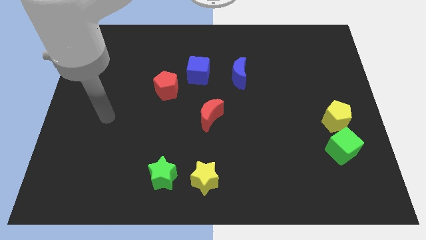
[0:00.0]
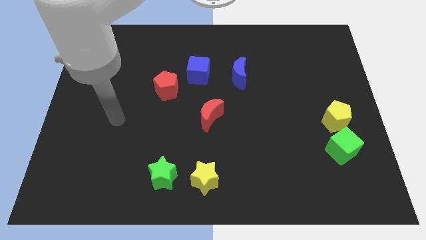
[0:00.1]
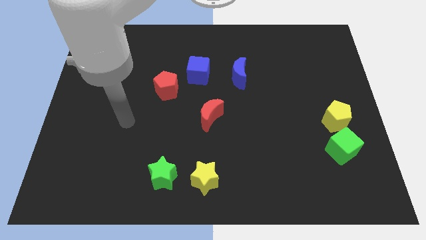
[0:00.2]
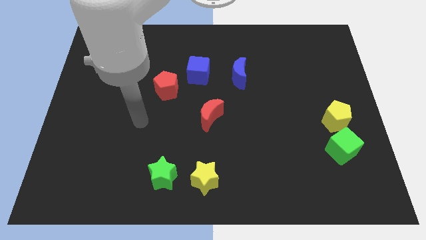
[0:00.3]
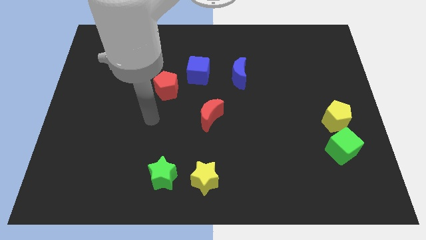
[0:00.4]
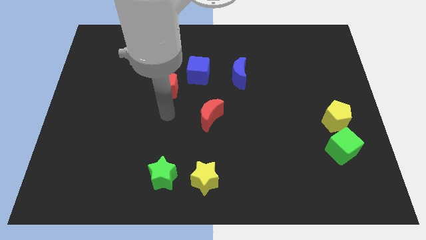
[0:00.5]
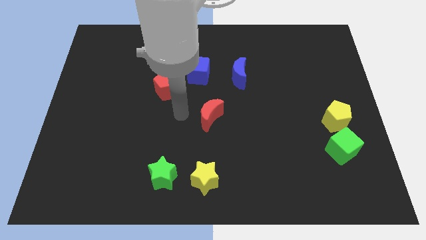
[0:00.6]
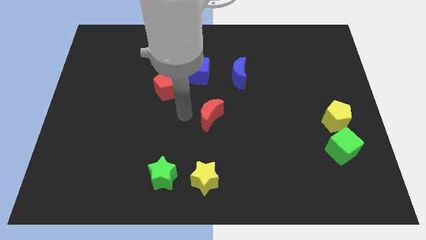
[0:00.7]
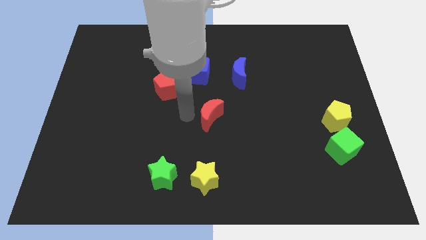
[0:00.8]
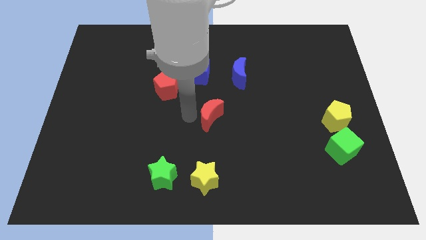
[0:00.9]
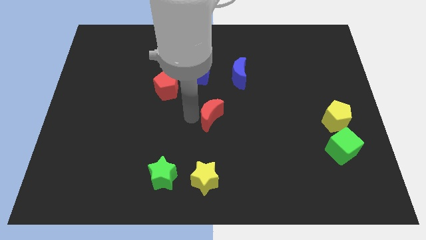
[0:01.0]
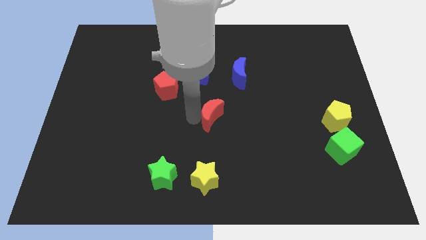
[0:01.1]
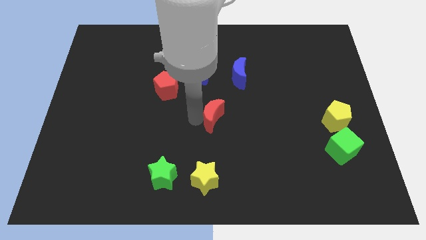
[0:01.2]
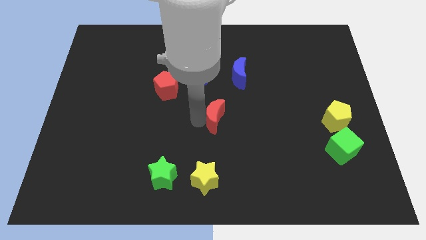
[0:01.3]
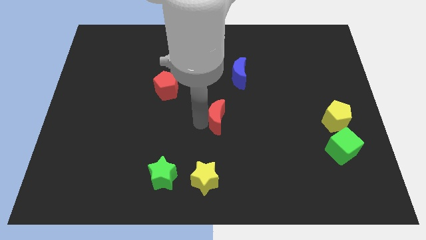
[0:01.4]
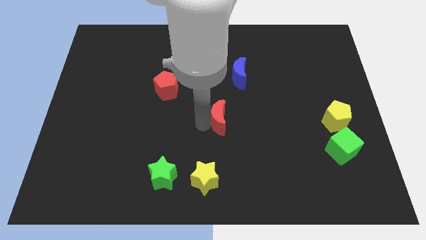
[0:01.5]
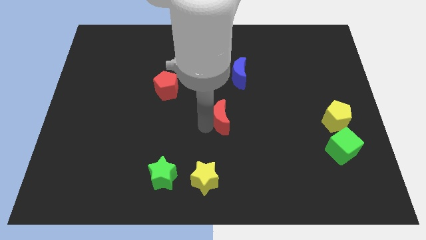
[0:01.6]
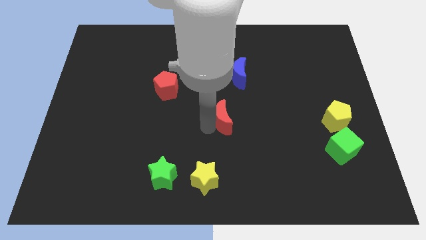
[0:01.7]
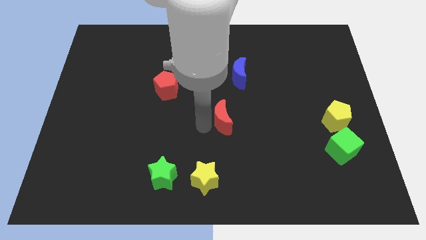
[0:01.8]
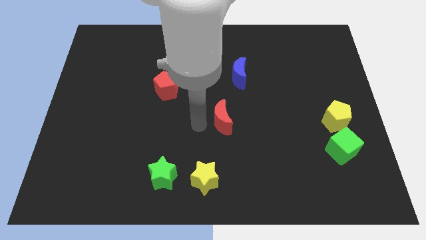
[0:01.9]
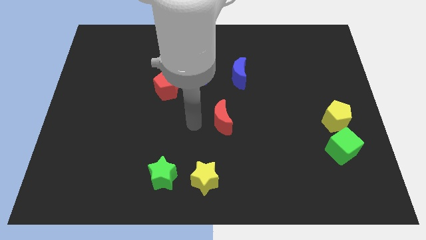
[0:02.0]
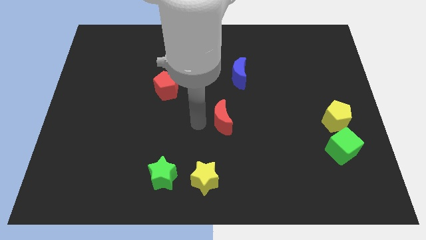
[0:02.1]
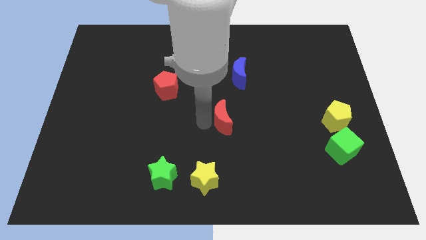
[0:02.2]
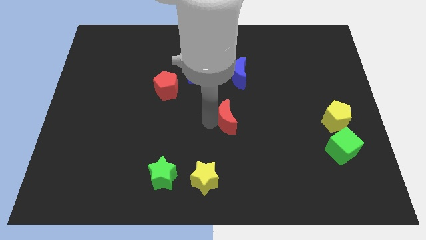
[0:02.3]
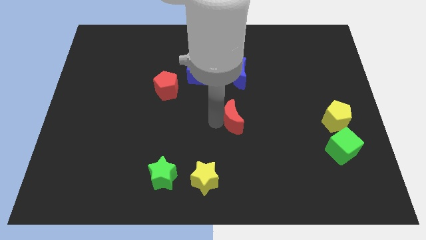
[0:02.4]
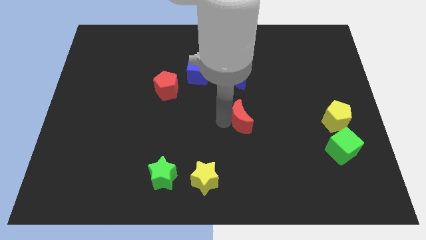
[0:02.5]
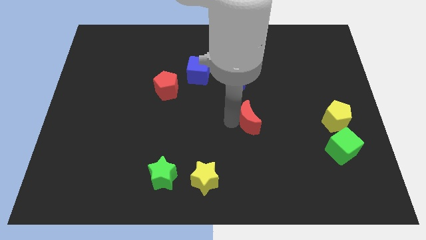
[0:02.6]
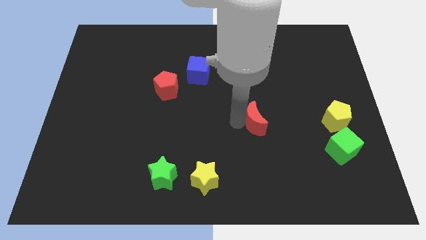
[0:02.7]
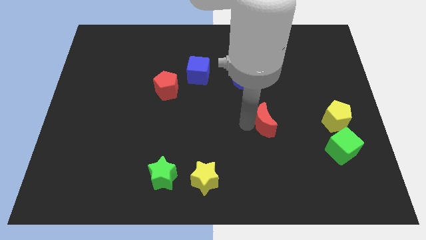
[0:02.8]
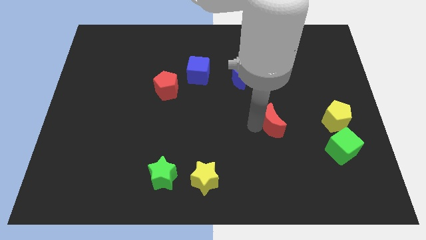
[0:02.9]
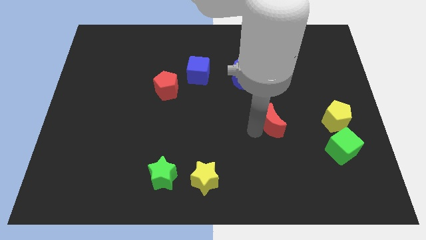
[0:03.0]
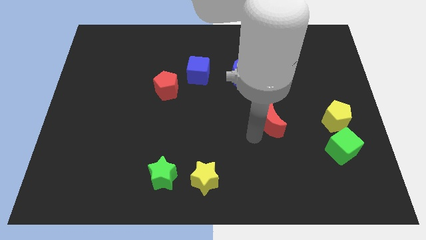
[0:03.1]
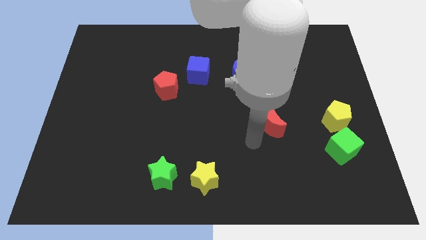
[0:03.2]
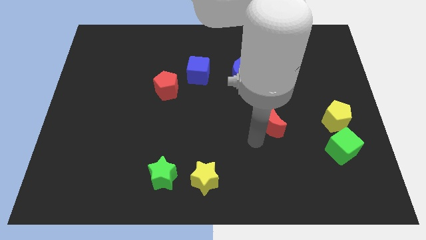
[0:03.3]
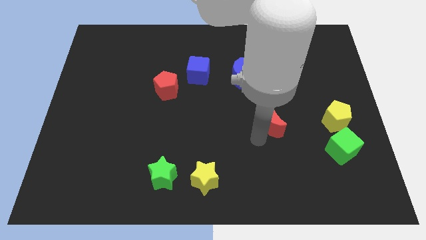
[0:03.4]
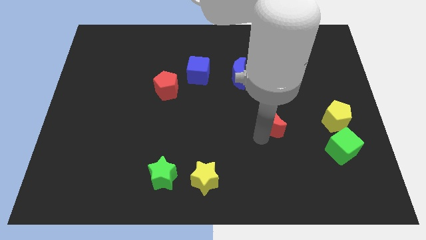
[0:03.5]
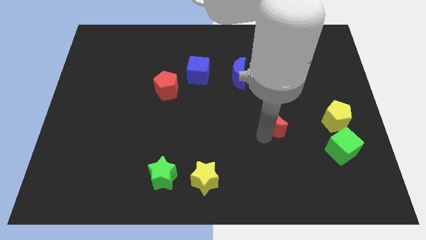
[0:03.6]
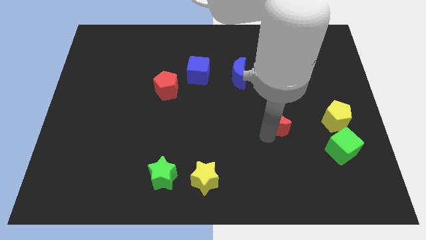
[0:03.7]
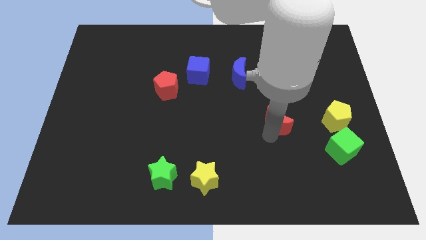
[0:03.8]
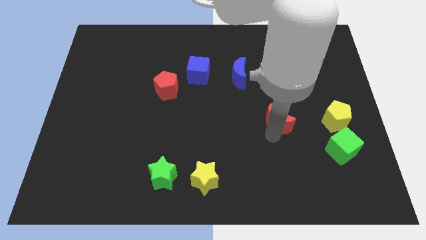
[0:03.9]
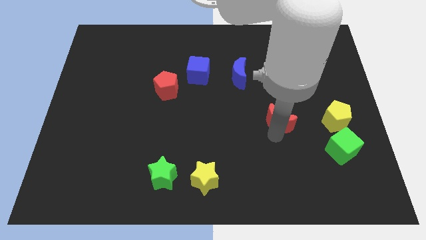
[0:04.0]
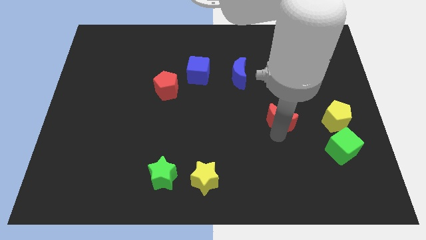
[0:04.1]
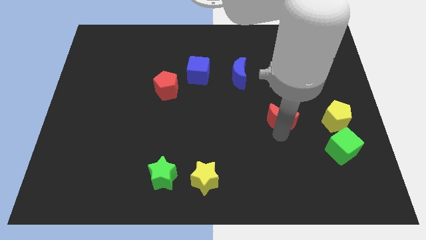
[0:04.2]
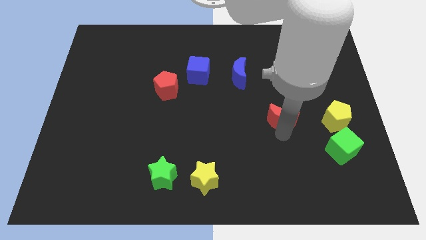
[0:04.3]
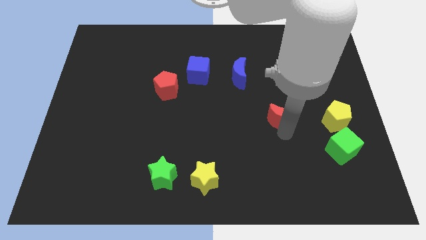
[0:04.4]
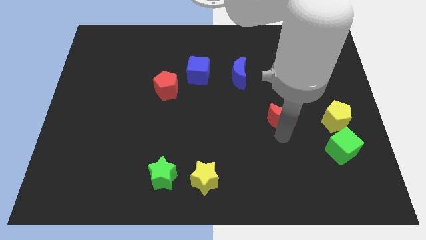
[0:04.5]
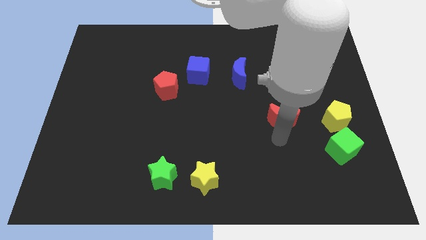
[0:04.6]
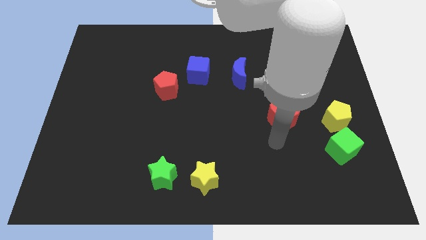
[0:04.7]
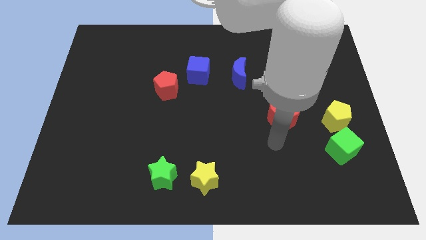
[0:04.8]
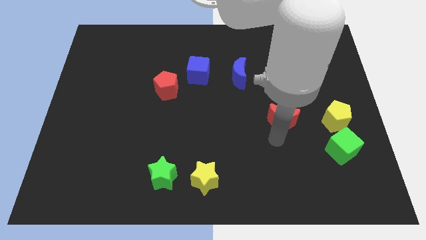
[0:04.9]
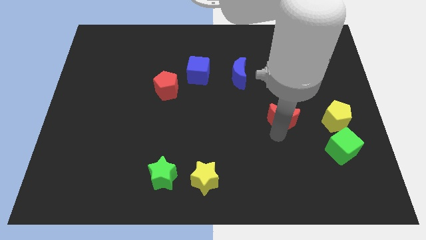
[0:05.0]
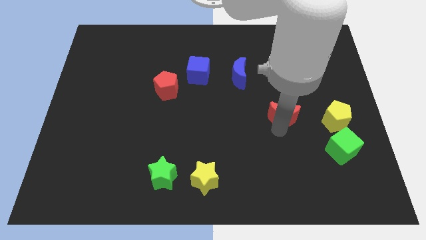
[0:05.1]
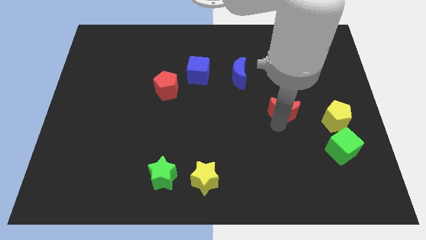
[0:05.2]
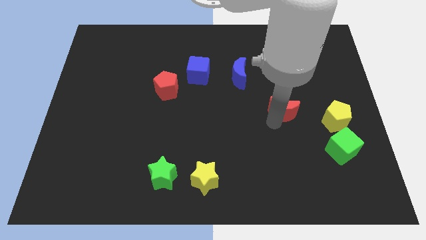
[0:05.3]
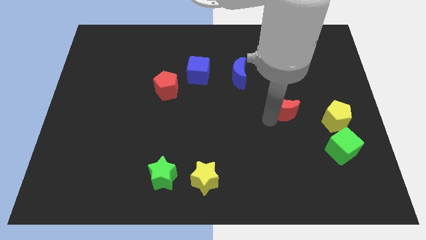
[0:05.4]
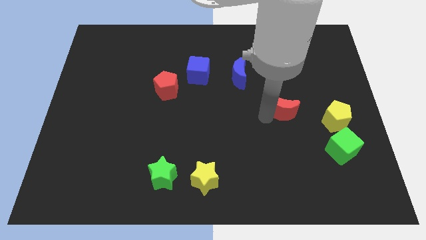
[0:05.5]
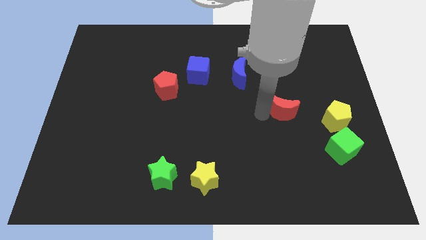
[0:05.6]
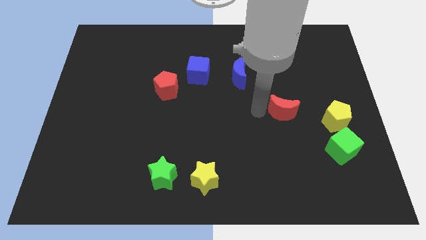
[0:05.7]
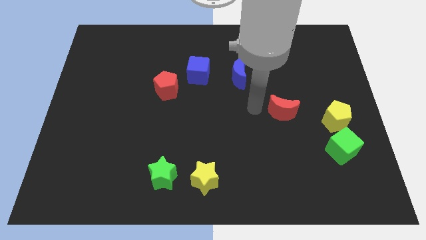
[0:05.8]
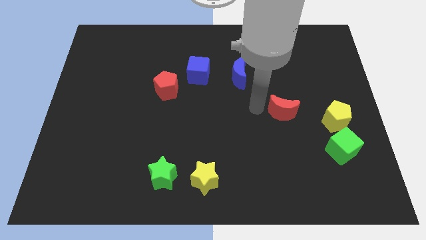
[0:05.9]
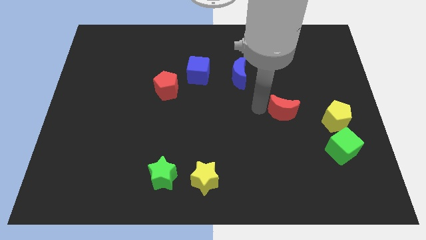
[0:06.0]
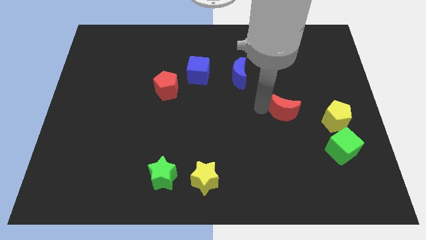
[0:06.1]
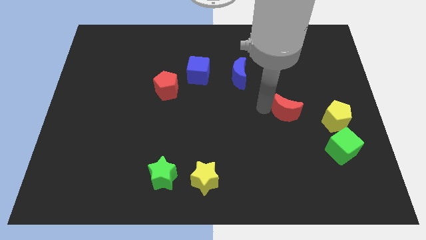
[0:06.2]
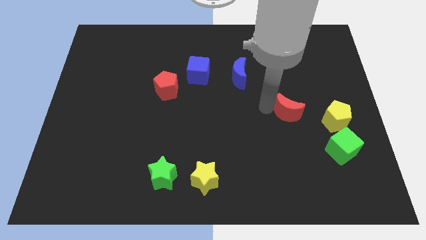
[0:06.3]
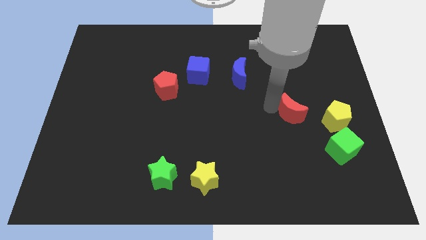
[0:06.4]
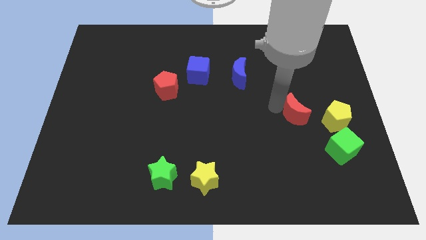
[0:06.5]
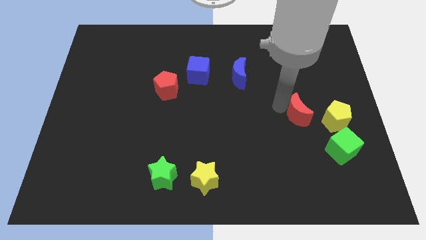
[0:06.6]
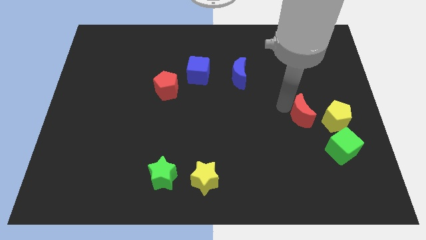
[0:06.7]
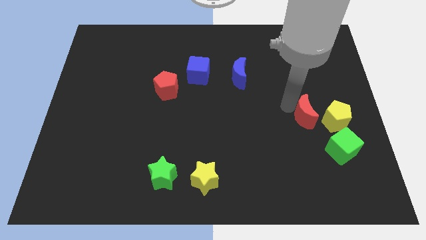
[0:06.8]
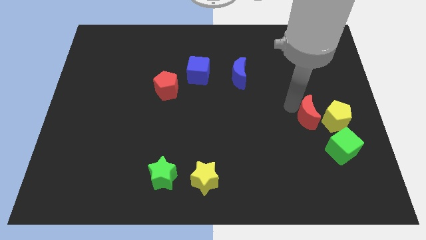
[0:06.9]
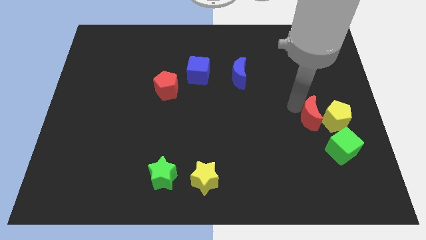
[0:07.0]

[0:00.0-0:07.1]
slide the red moon next to the yellow pentagon
